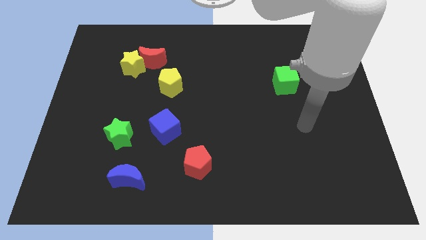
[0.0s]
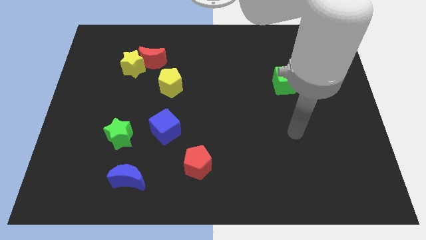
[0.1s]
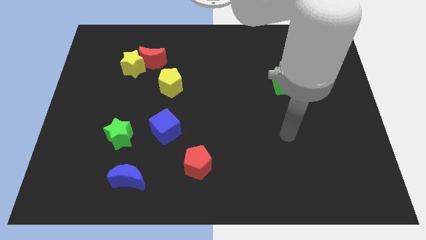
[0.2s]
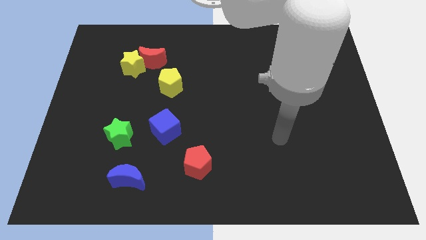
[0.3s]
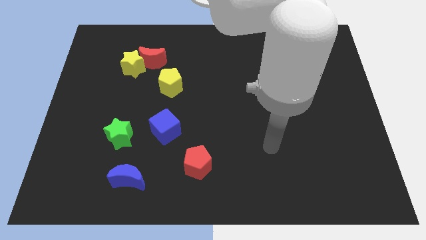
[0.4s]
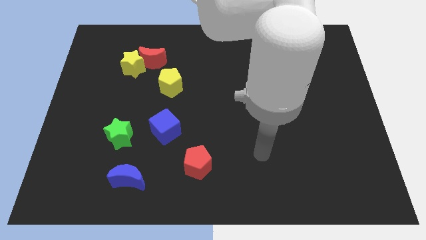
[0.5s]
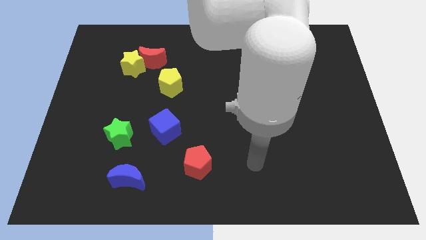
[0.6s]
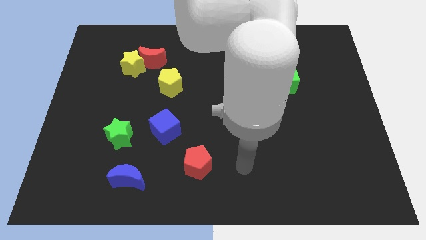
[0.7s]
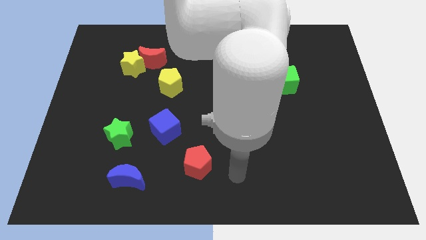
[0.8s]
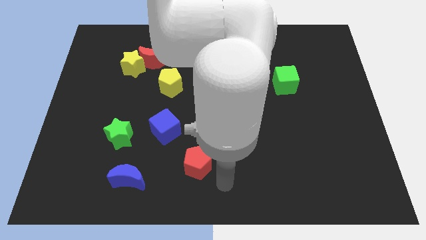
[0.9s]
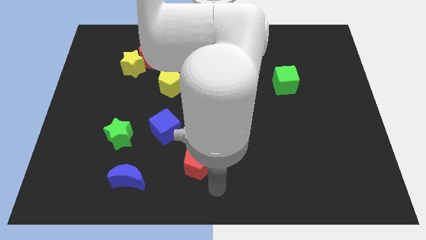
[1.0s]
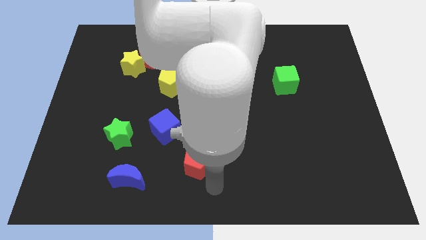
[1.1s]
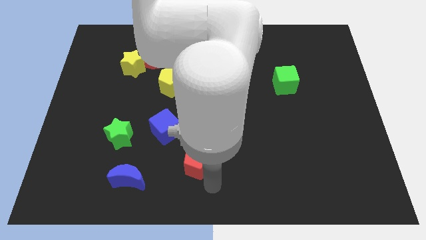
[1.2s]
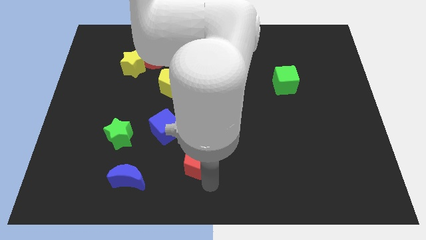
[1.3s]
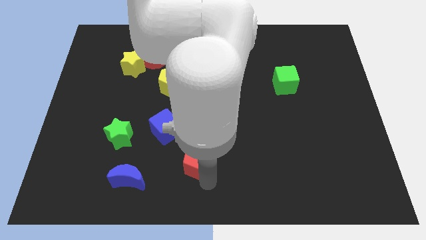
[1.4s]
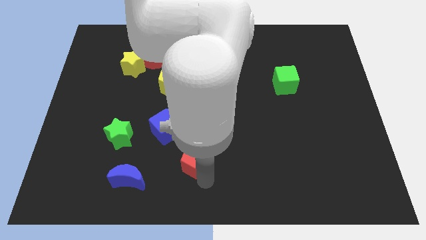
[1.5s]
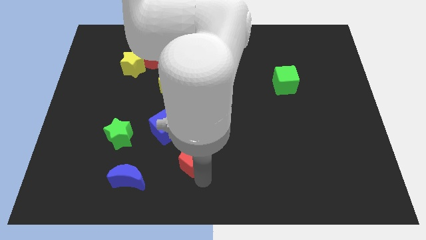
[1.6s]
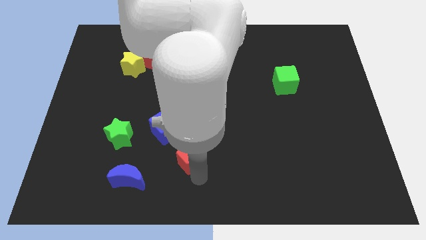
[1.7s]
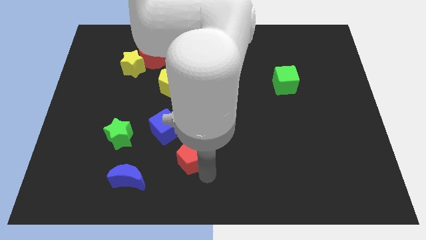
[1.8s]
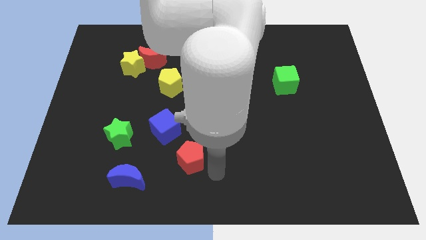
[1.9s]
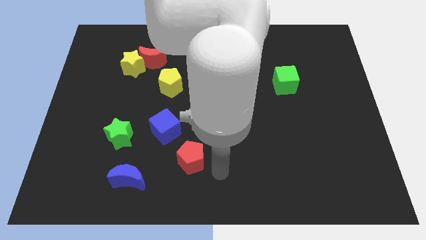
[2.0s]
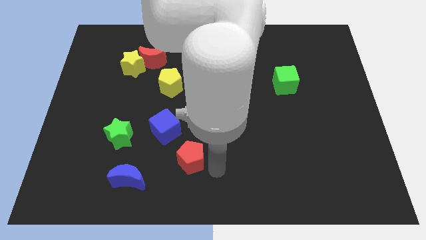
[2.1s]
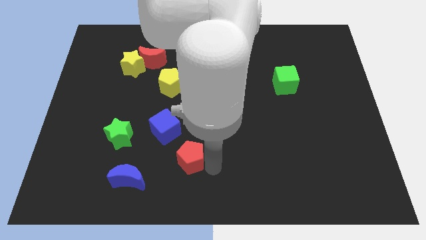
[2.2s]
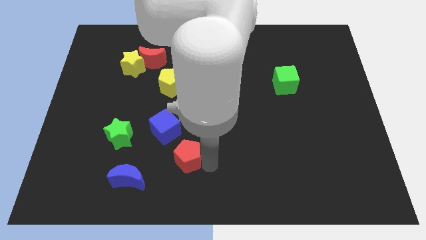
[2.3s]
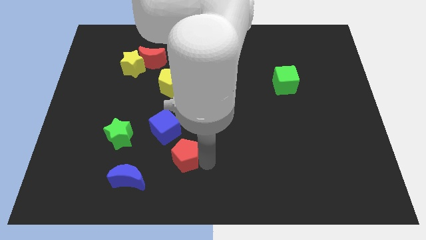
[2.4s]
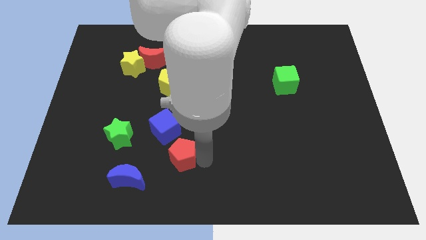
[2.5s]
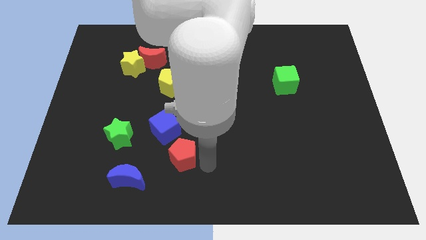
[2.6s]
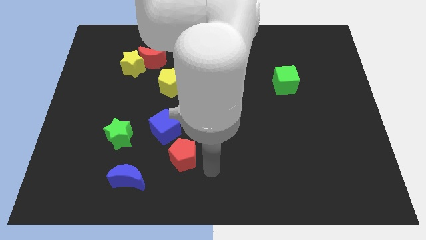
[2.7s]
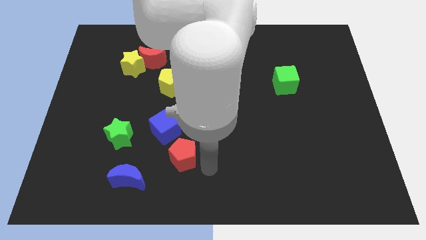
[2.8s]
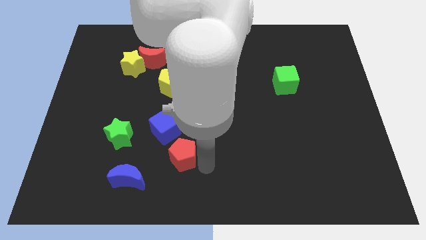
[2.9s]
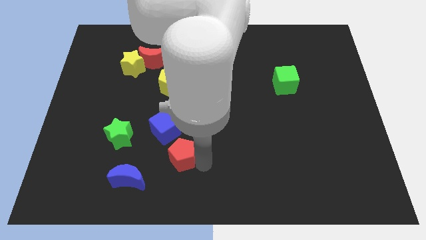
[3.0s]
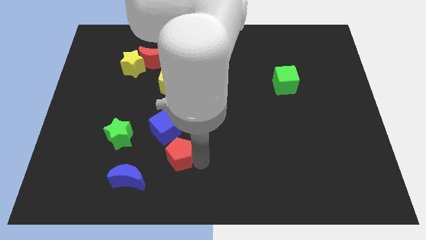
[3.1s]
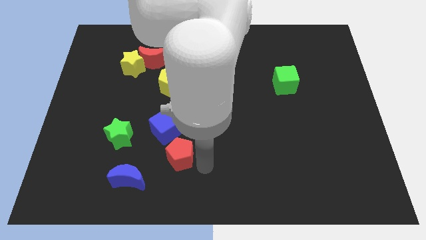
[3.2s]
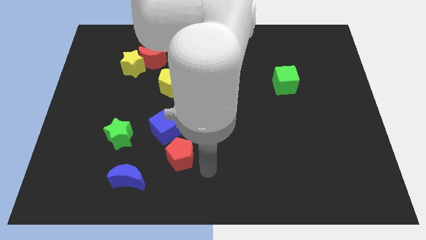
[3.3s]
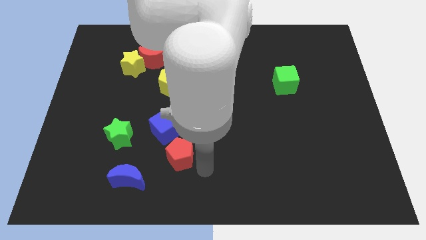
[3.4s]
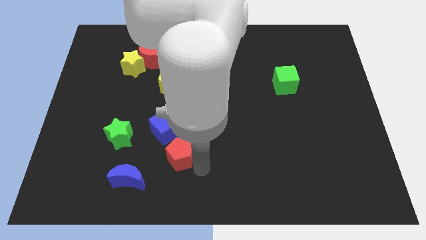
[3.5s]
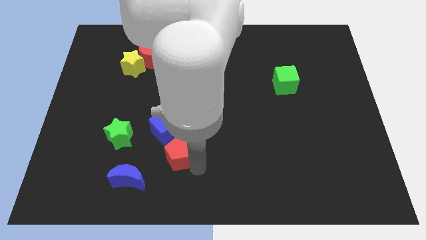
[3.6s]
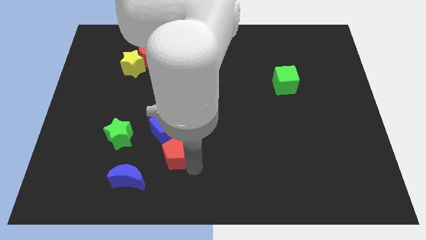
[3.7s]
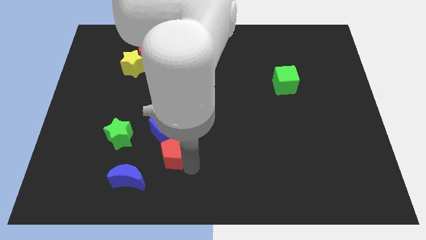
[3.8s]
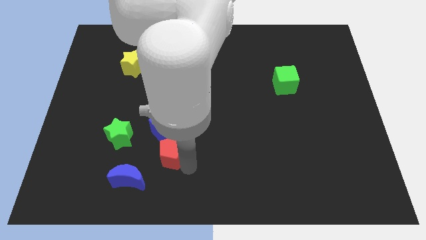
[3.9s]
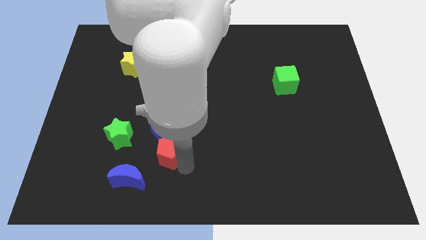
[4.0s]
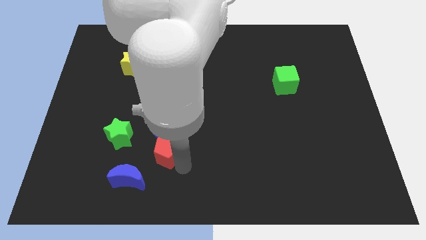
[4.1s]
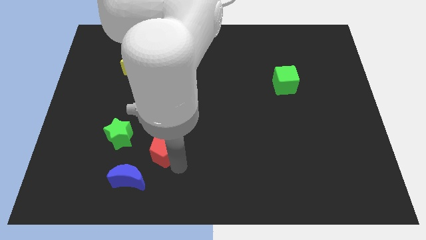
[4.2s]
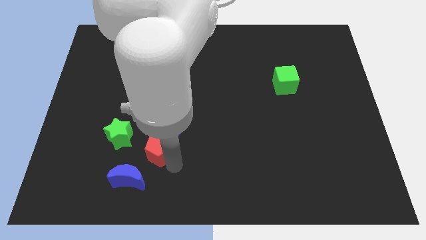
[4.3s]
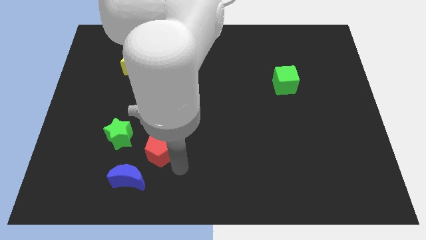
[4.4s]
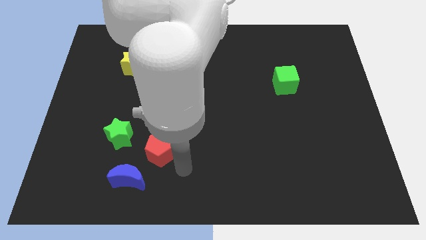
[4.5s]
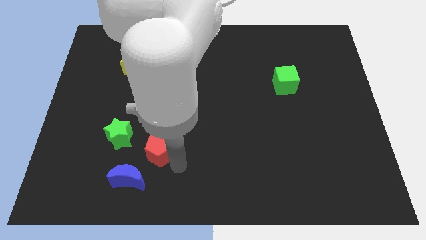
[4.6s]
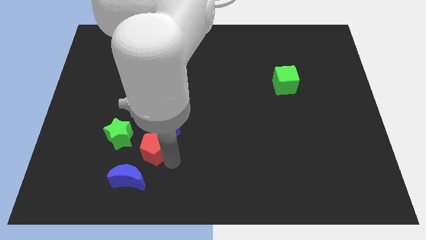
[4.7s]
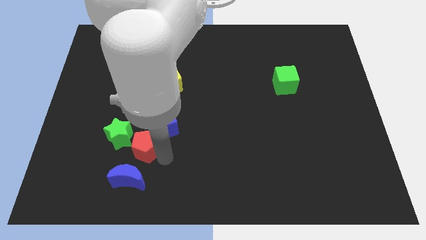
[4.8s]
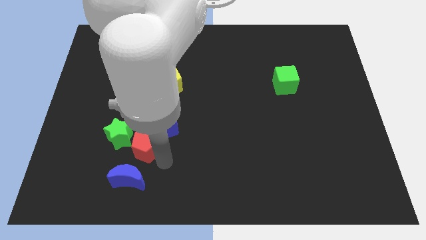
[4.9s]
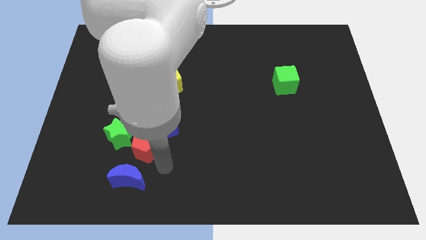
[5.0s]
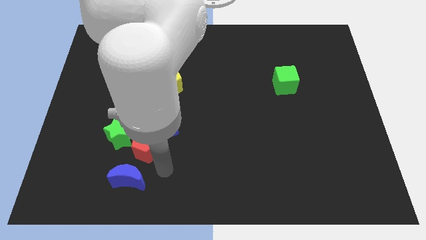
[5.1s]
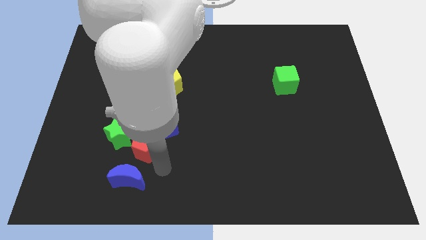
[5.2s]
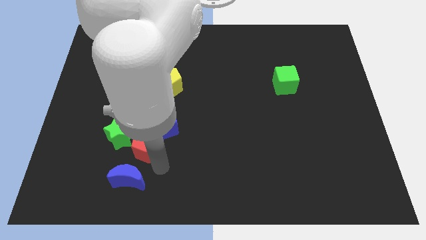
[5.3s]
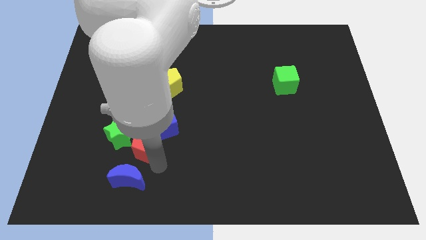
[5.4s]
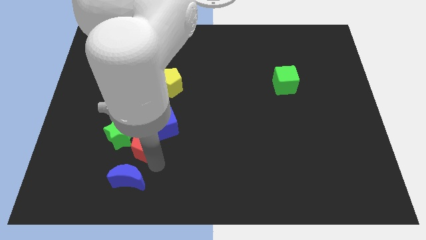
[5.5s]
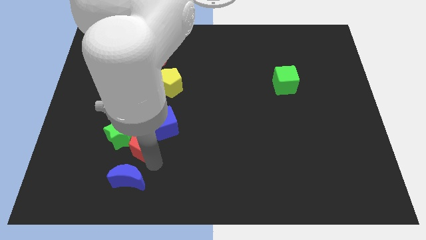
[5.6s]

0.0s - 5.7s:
move the red pentagon to the green star
